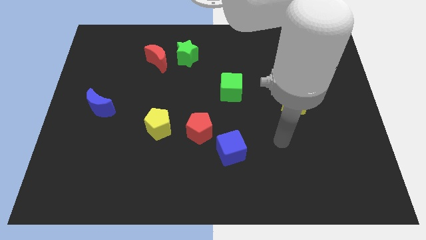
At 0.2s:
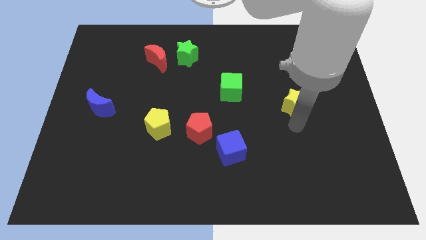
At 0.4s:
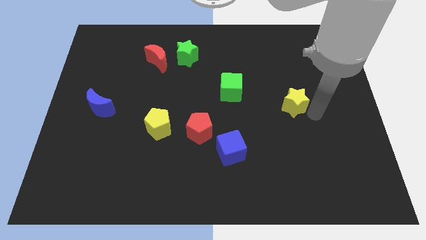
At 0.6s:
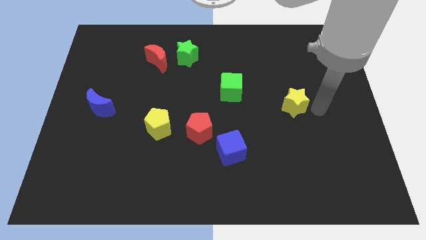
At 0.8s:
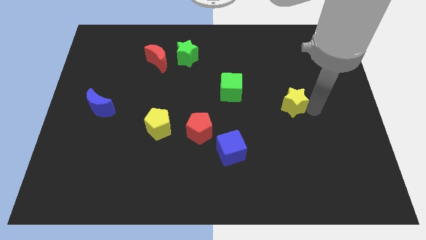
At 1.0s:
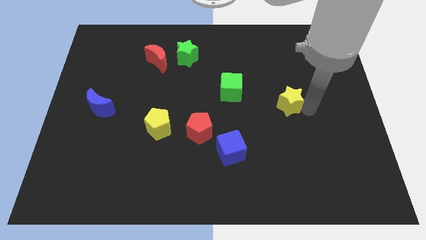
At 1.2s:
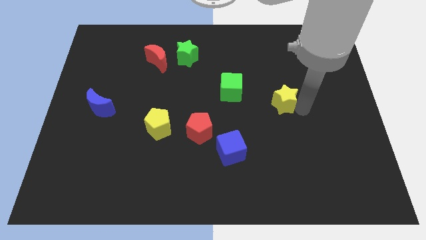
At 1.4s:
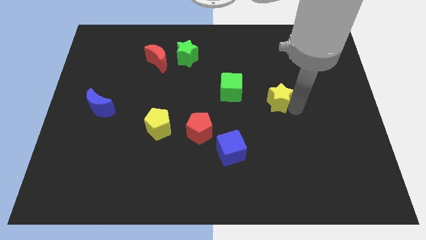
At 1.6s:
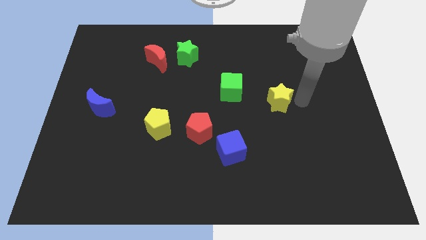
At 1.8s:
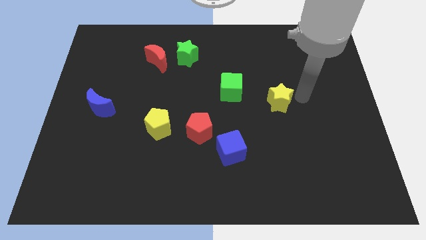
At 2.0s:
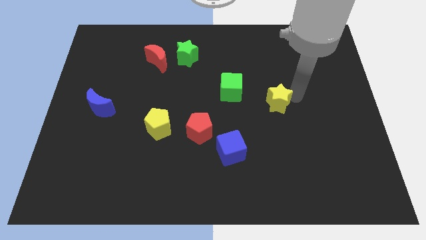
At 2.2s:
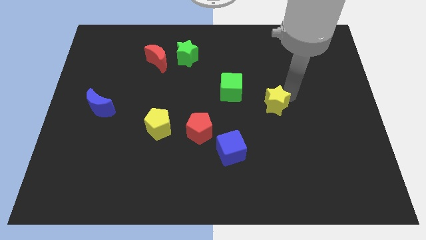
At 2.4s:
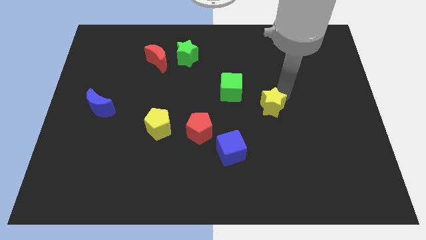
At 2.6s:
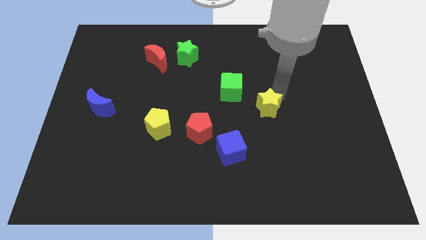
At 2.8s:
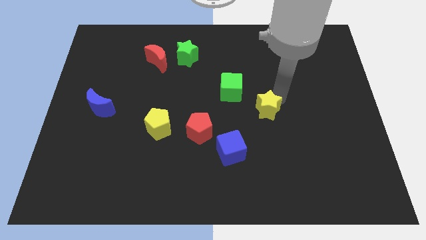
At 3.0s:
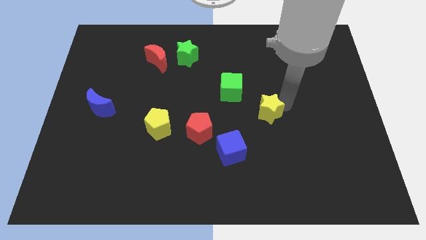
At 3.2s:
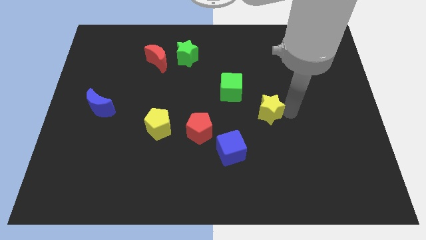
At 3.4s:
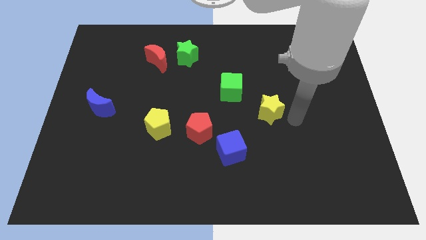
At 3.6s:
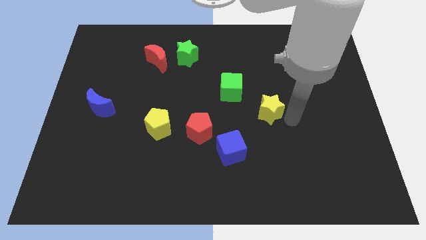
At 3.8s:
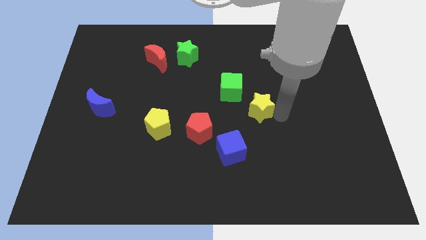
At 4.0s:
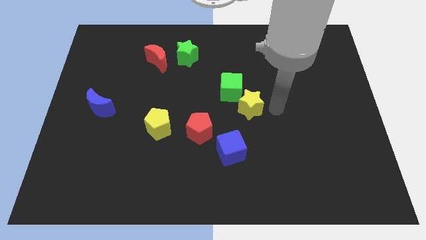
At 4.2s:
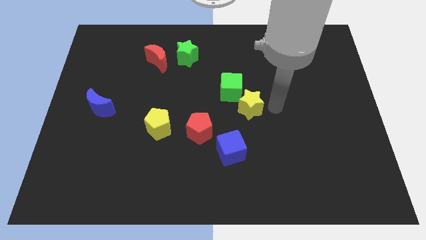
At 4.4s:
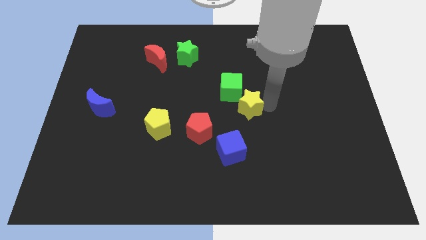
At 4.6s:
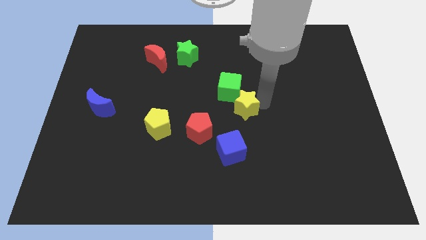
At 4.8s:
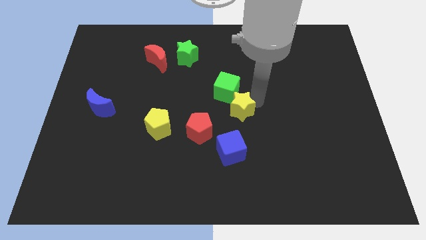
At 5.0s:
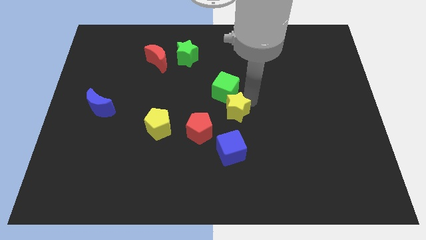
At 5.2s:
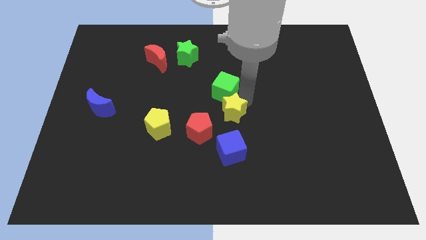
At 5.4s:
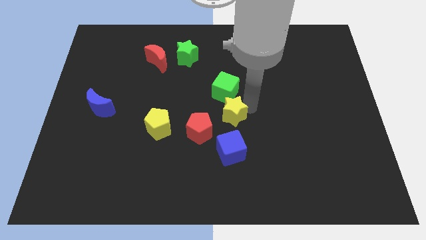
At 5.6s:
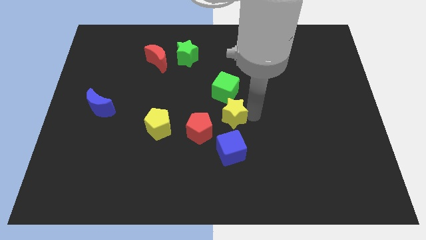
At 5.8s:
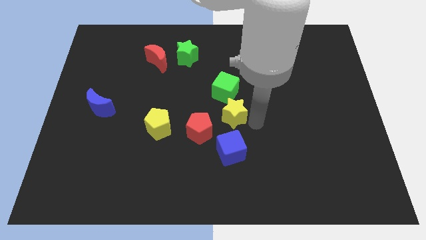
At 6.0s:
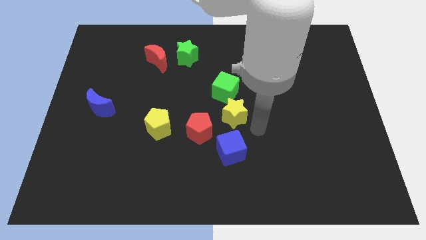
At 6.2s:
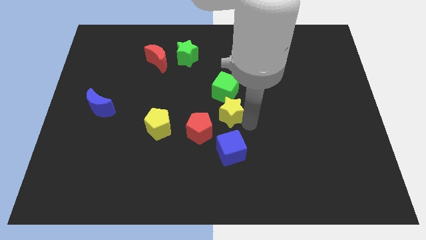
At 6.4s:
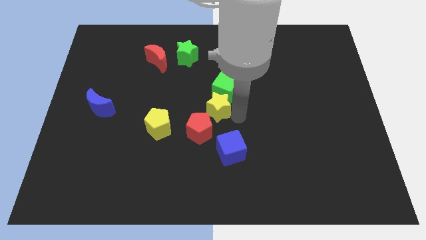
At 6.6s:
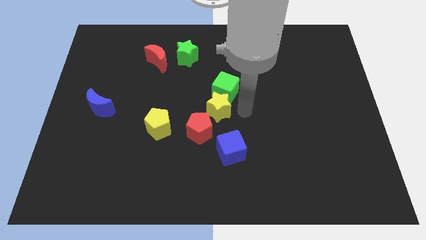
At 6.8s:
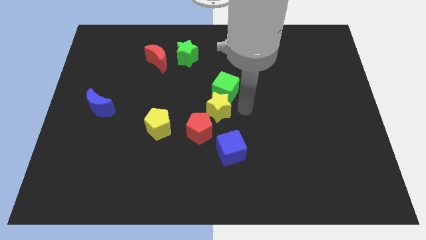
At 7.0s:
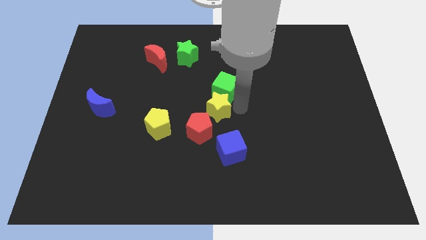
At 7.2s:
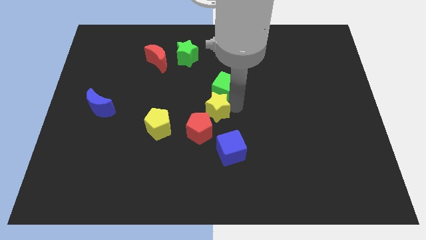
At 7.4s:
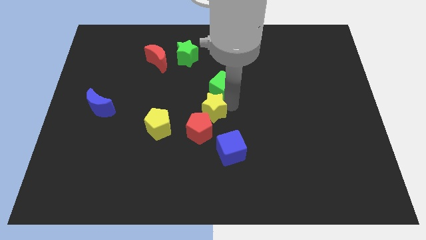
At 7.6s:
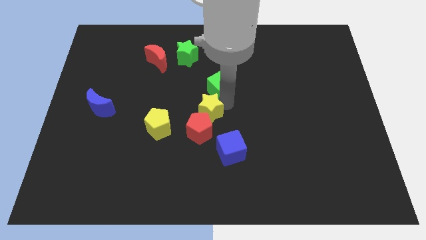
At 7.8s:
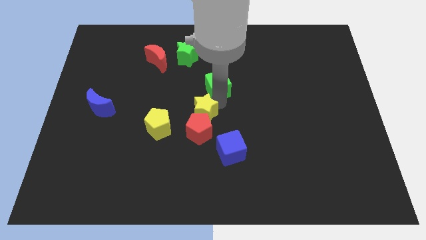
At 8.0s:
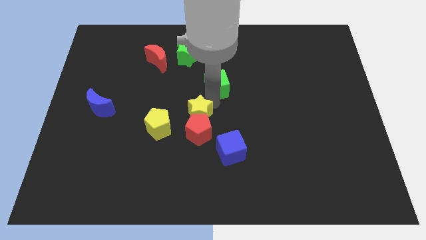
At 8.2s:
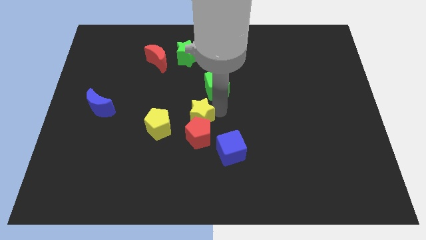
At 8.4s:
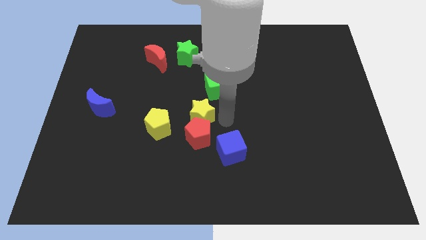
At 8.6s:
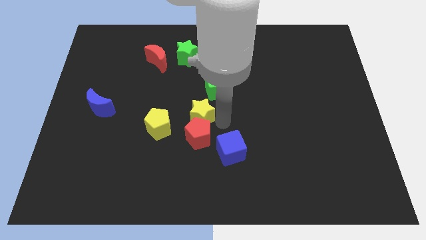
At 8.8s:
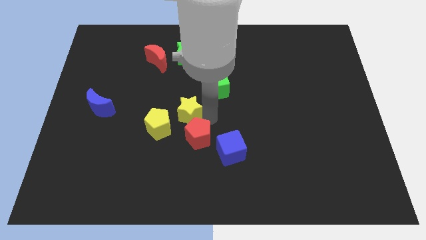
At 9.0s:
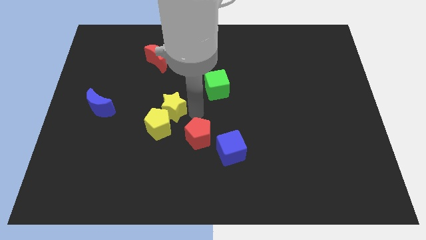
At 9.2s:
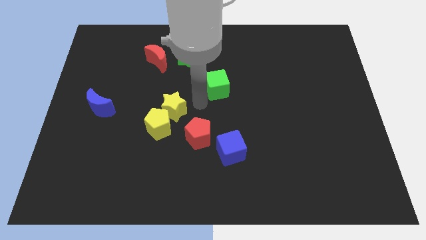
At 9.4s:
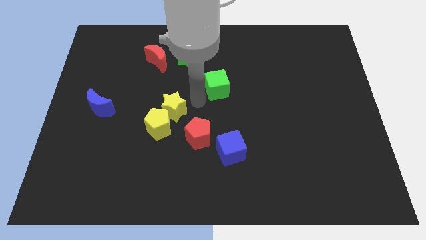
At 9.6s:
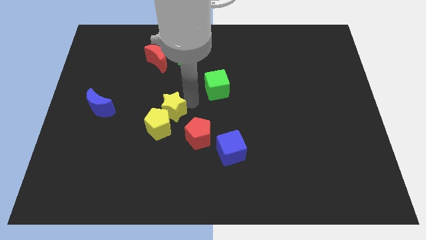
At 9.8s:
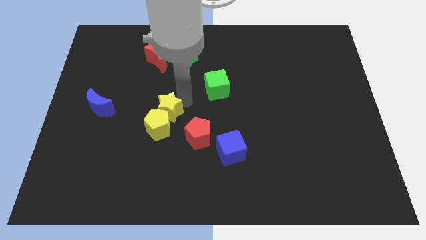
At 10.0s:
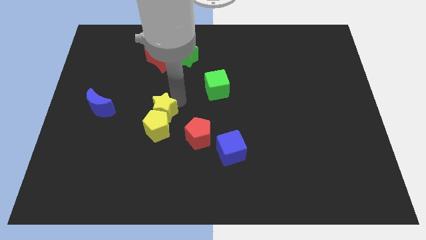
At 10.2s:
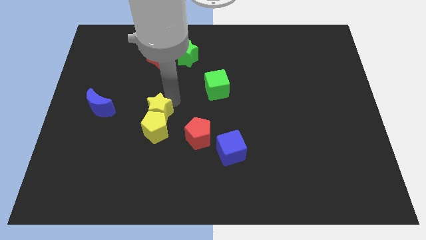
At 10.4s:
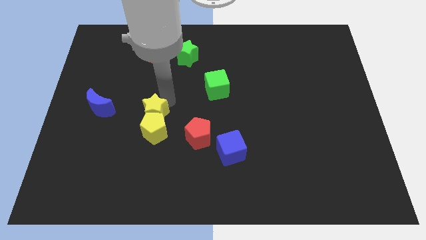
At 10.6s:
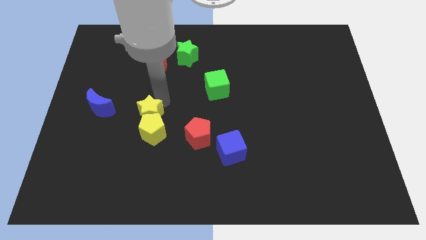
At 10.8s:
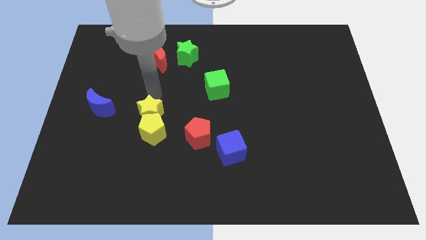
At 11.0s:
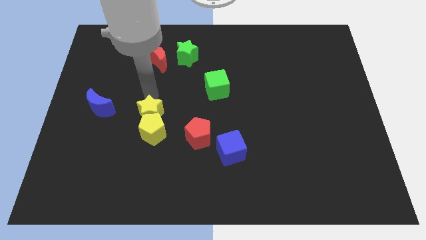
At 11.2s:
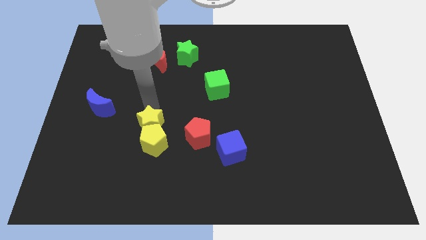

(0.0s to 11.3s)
put the yellow star left of the red pentagon

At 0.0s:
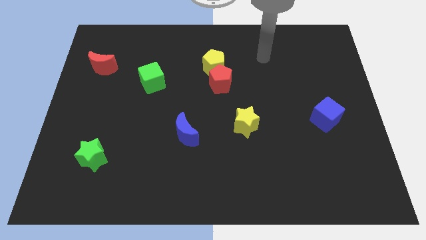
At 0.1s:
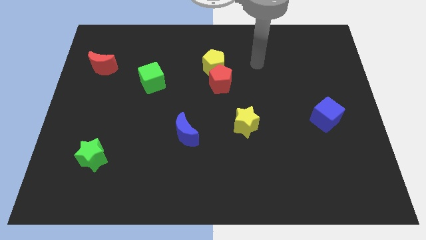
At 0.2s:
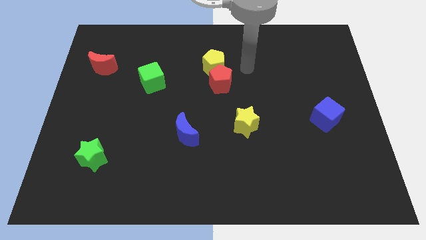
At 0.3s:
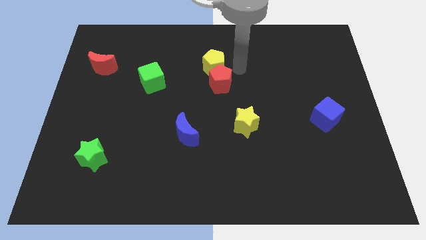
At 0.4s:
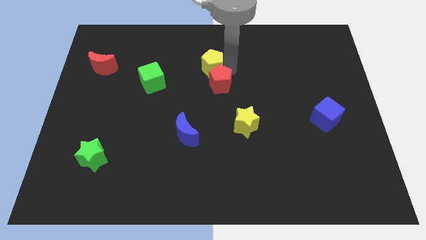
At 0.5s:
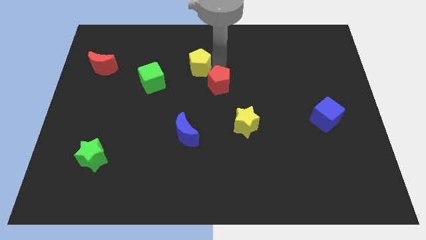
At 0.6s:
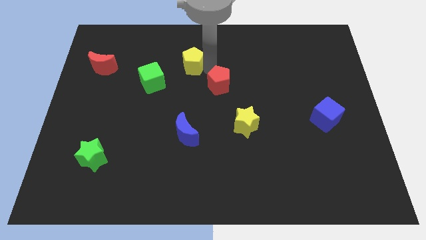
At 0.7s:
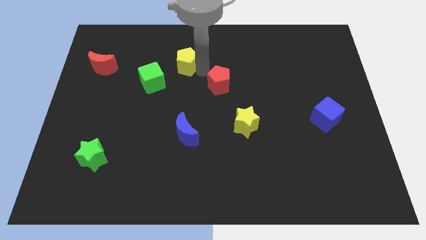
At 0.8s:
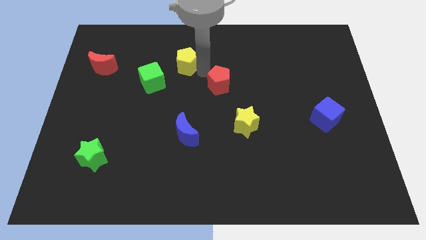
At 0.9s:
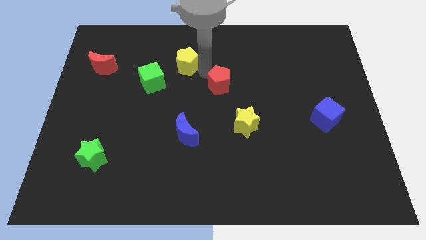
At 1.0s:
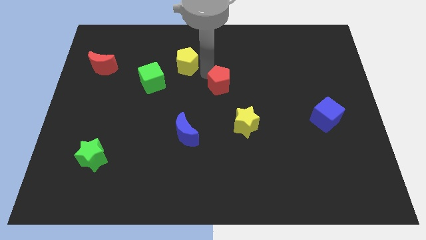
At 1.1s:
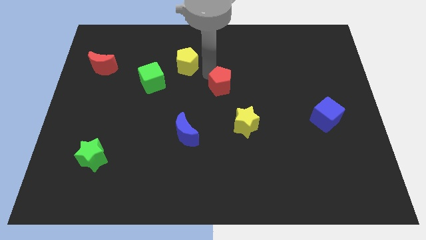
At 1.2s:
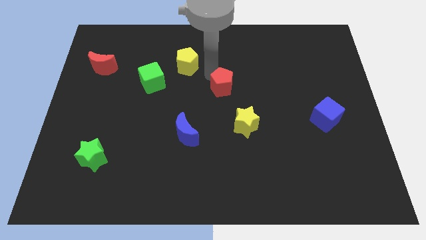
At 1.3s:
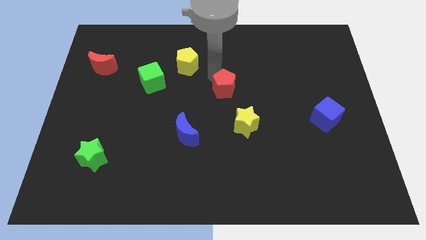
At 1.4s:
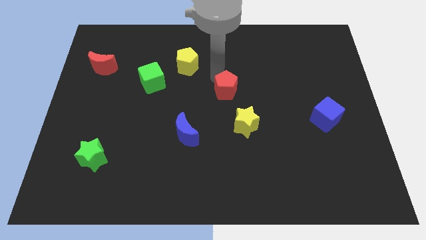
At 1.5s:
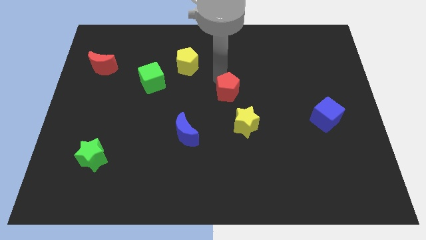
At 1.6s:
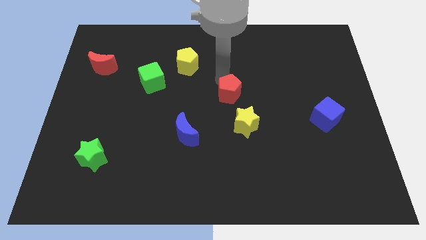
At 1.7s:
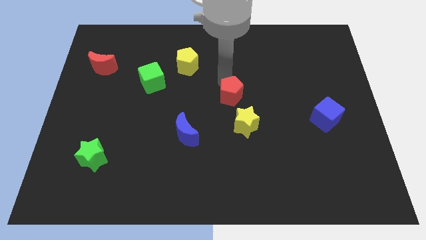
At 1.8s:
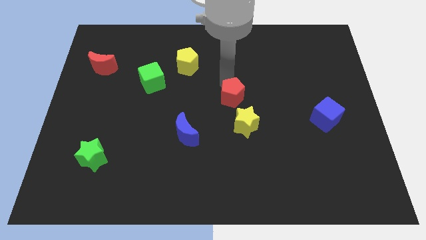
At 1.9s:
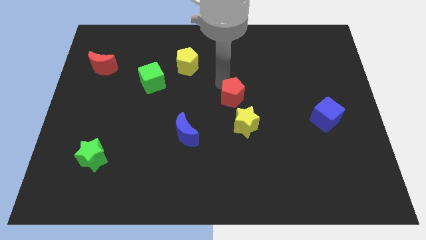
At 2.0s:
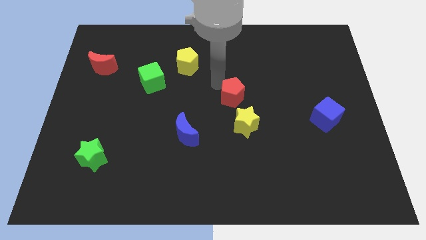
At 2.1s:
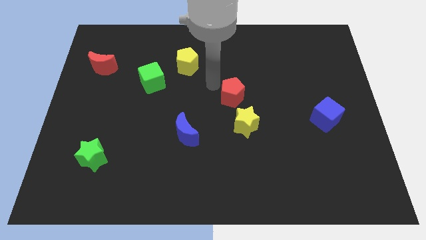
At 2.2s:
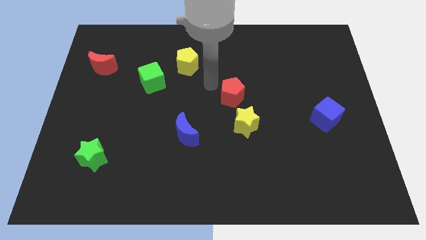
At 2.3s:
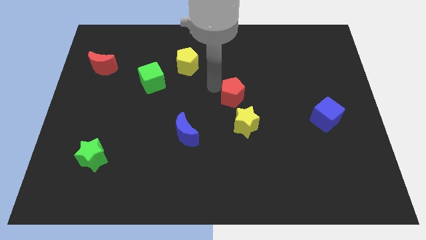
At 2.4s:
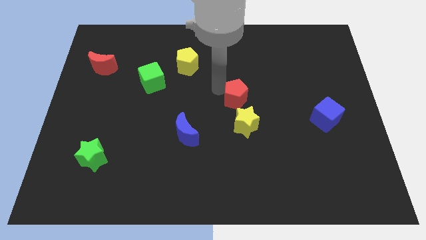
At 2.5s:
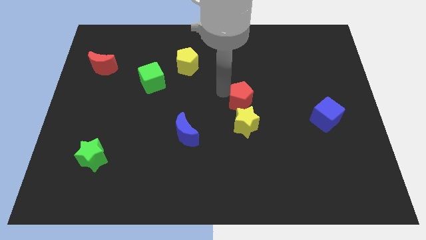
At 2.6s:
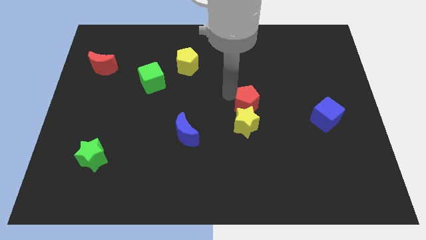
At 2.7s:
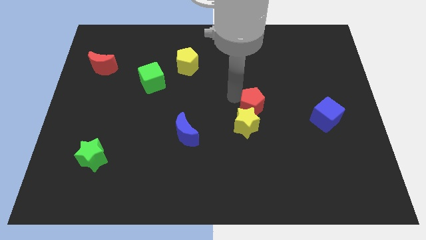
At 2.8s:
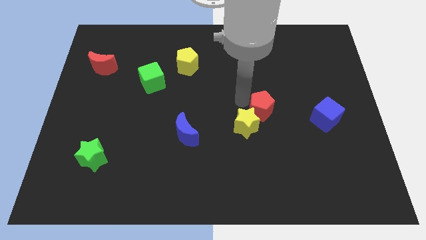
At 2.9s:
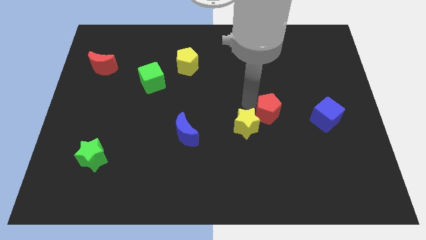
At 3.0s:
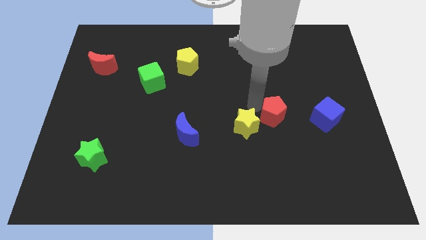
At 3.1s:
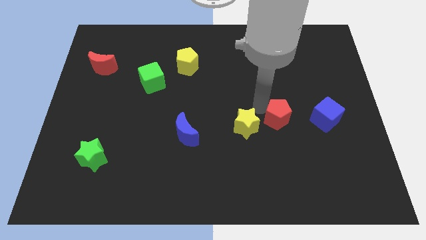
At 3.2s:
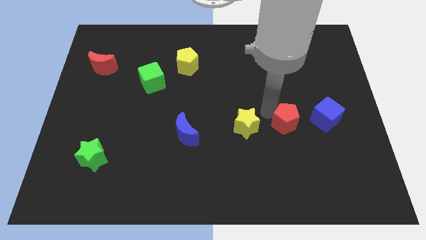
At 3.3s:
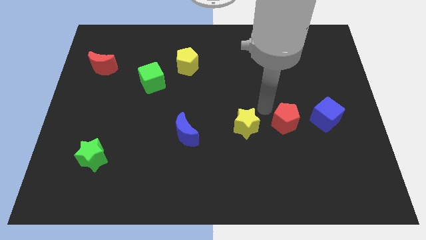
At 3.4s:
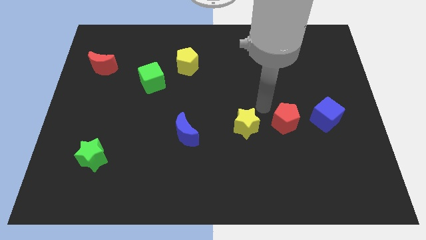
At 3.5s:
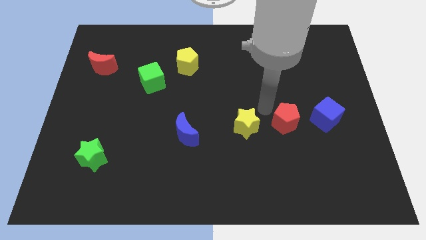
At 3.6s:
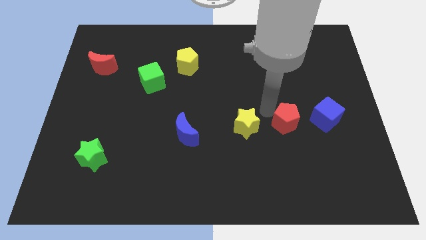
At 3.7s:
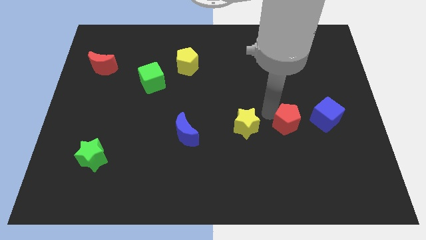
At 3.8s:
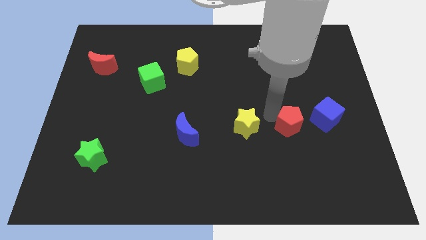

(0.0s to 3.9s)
move the red pentagon diagonally down and to the left of the blue cube
